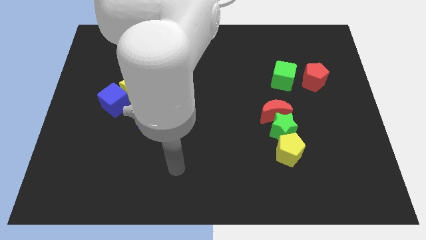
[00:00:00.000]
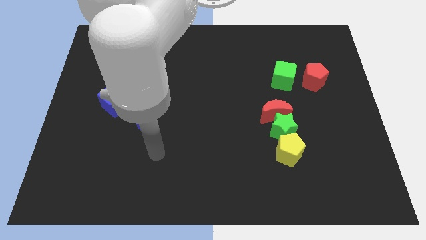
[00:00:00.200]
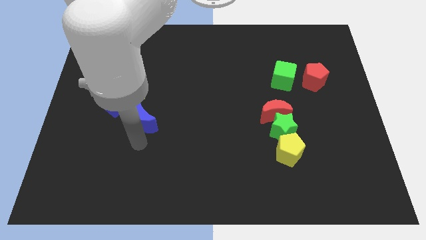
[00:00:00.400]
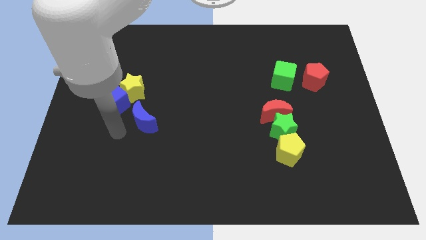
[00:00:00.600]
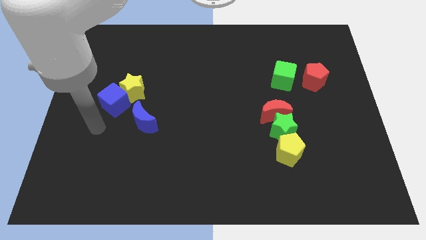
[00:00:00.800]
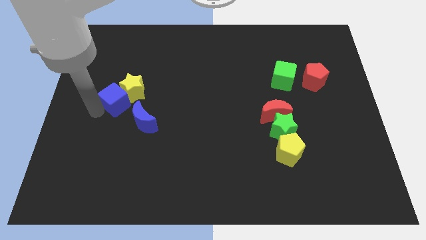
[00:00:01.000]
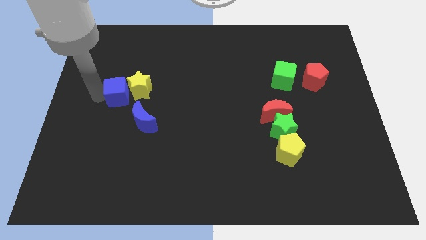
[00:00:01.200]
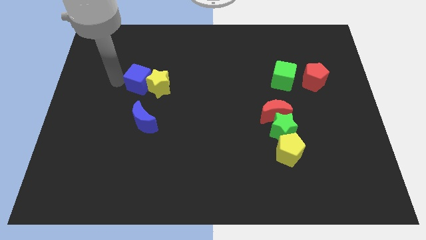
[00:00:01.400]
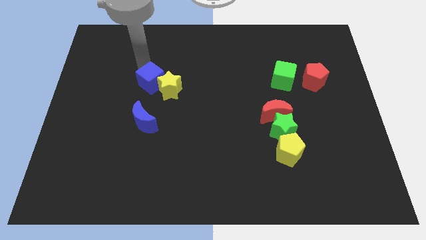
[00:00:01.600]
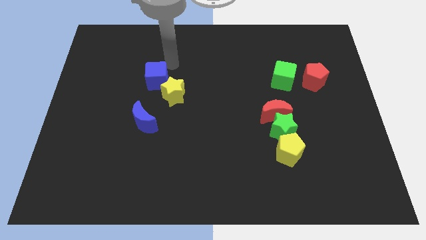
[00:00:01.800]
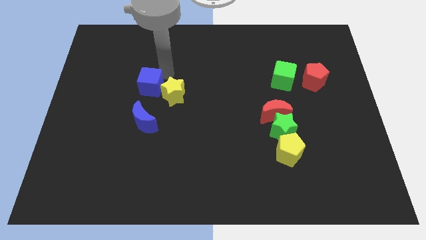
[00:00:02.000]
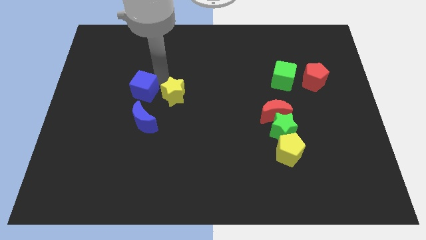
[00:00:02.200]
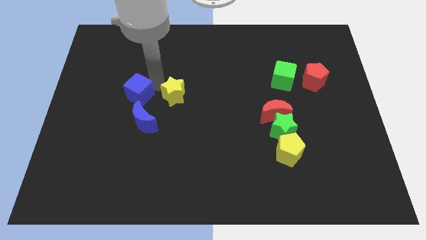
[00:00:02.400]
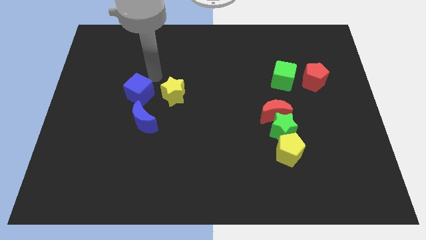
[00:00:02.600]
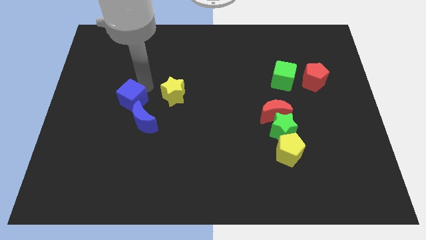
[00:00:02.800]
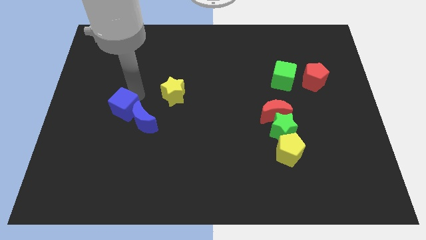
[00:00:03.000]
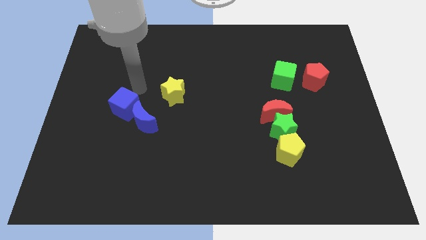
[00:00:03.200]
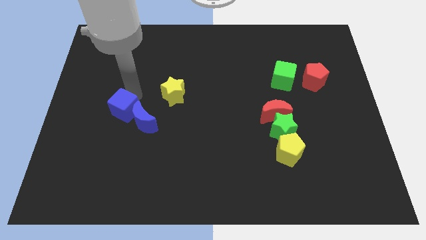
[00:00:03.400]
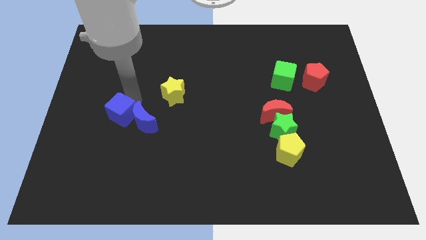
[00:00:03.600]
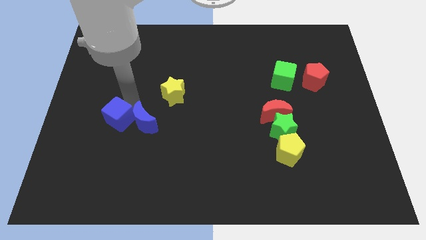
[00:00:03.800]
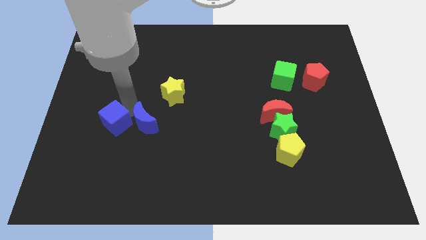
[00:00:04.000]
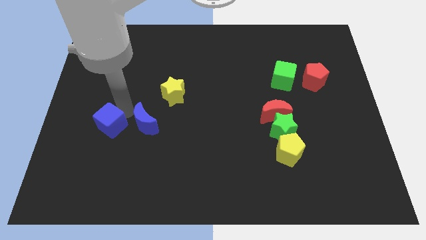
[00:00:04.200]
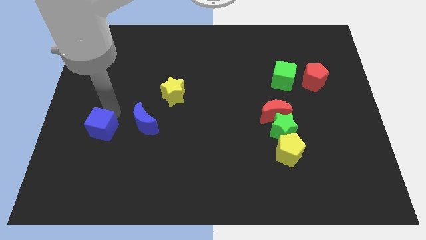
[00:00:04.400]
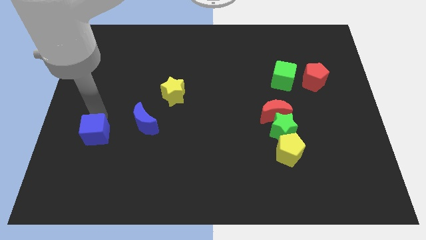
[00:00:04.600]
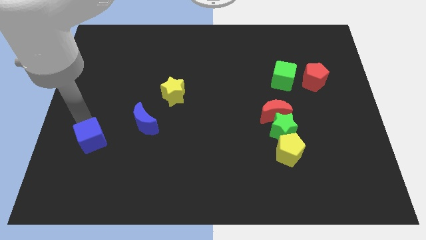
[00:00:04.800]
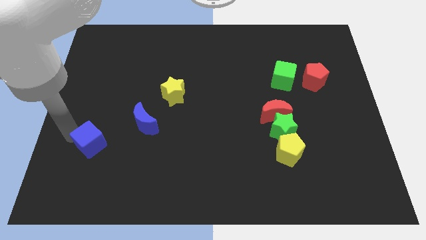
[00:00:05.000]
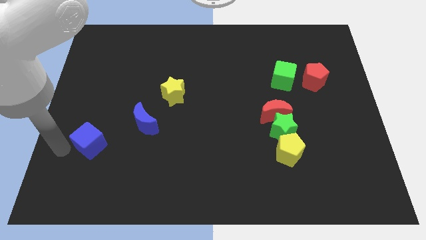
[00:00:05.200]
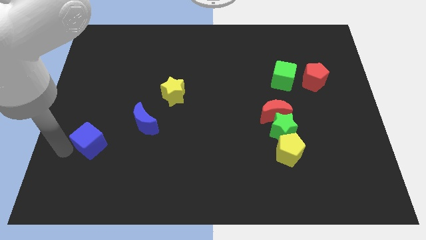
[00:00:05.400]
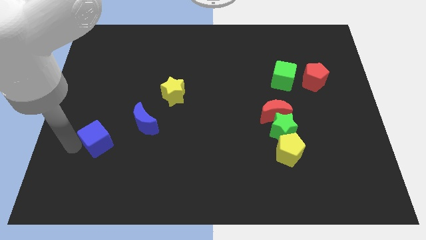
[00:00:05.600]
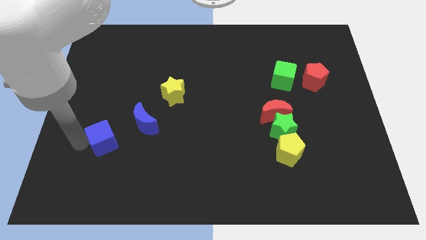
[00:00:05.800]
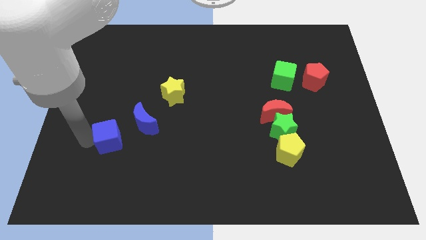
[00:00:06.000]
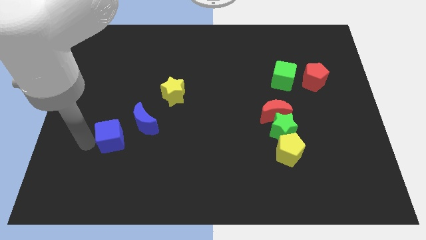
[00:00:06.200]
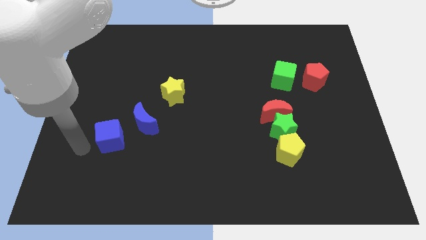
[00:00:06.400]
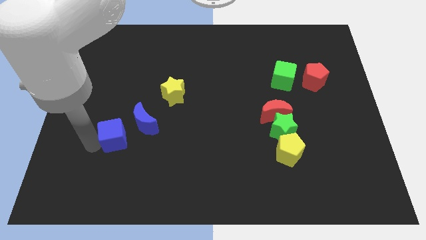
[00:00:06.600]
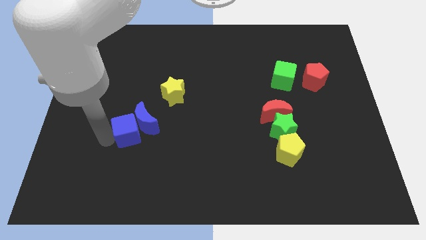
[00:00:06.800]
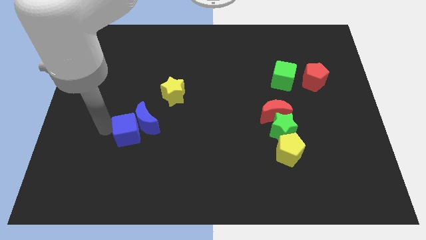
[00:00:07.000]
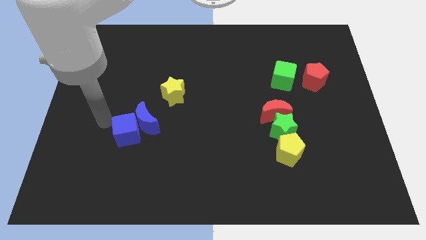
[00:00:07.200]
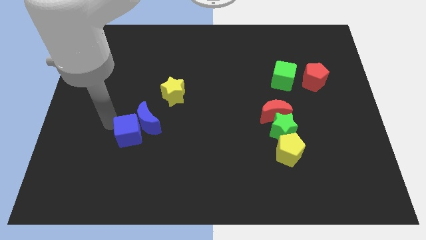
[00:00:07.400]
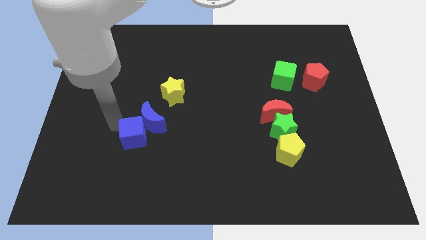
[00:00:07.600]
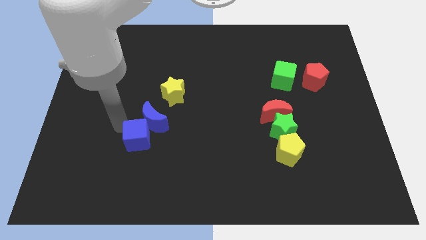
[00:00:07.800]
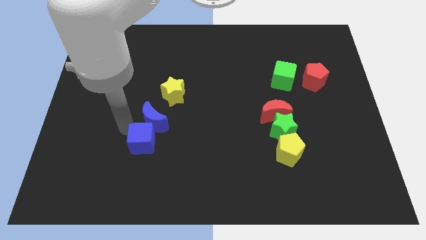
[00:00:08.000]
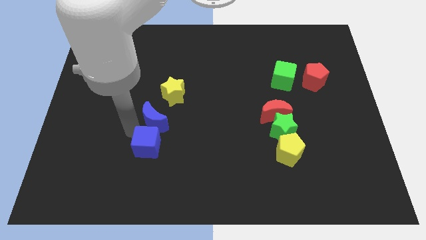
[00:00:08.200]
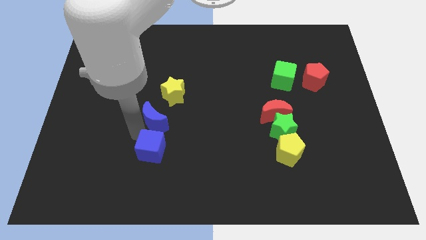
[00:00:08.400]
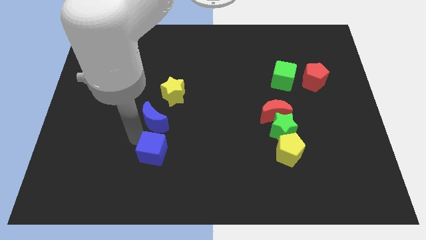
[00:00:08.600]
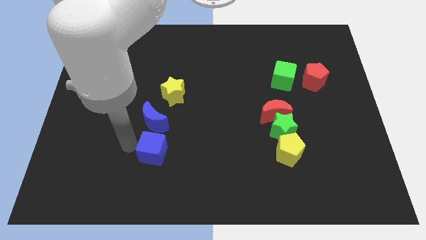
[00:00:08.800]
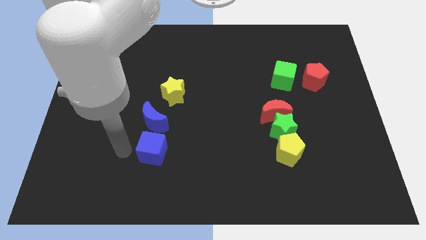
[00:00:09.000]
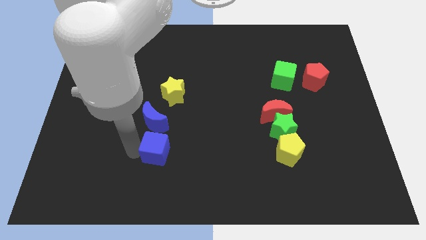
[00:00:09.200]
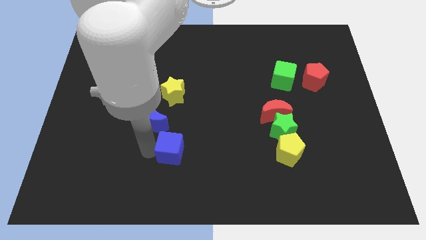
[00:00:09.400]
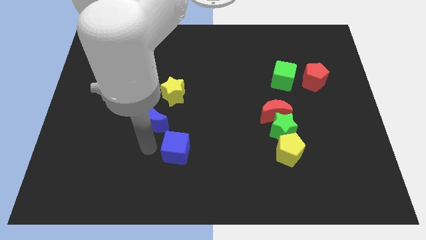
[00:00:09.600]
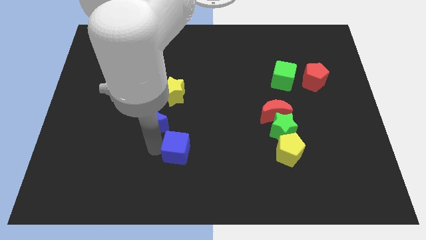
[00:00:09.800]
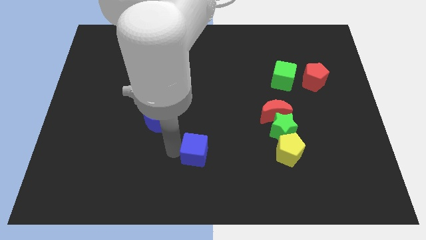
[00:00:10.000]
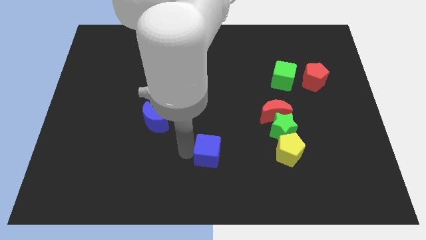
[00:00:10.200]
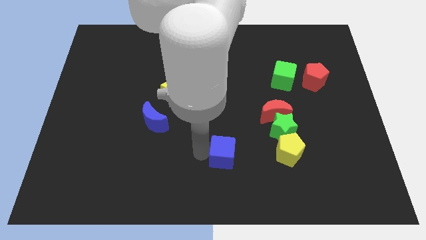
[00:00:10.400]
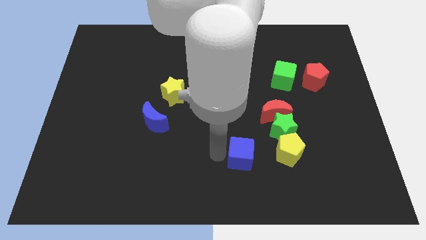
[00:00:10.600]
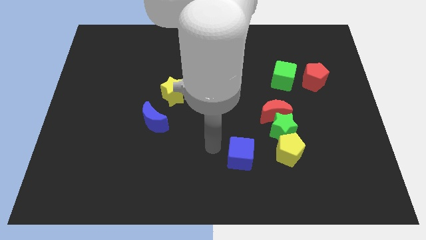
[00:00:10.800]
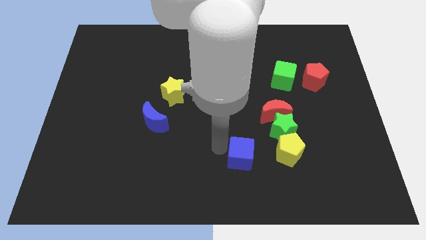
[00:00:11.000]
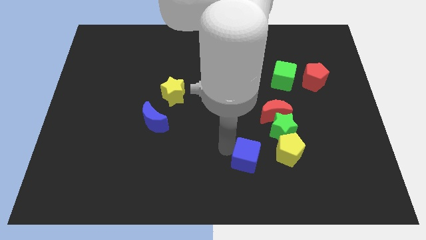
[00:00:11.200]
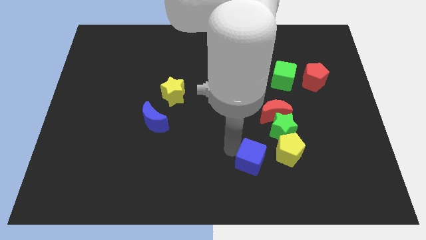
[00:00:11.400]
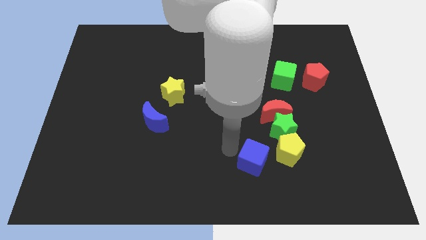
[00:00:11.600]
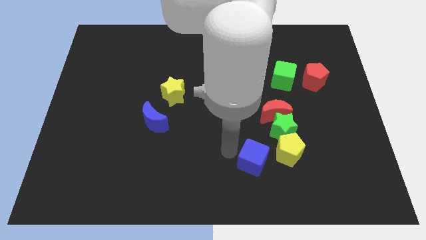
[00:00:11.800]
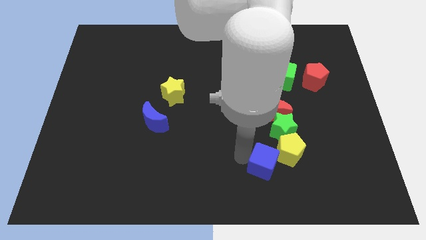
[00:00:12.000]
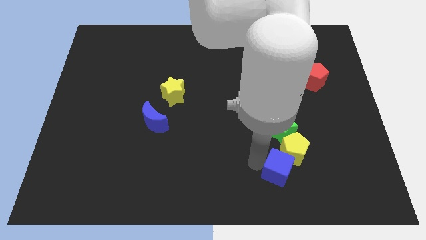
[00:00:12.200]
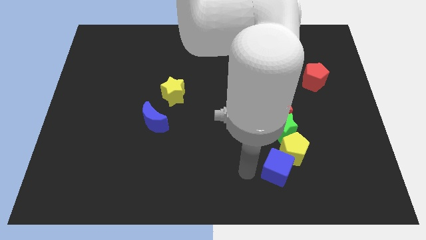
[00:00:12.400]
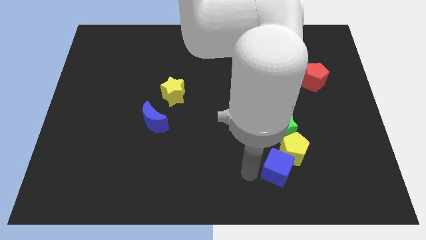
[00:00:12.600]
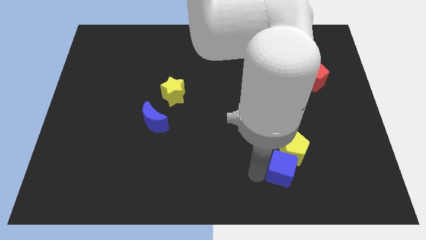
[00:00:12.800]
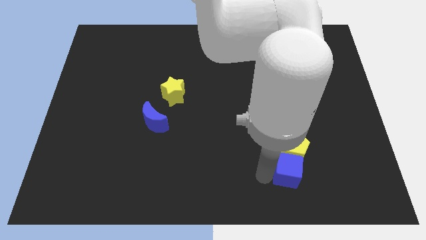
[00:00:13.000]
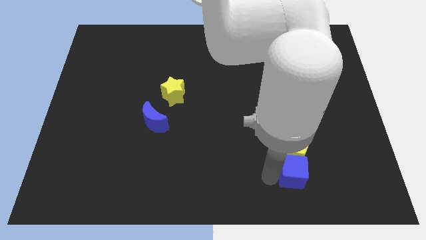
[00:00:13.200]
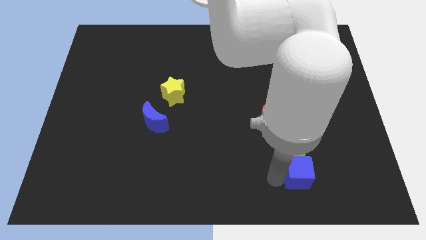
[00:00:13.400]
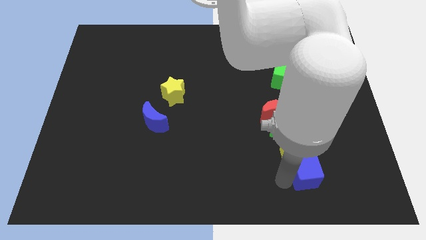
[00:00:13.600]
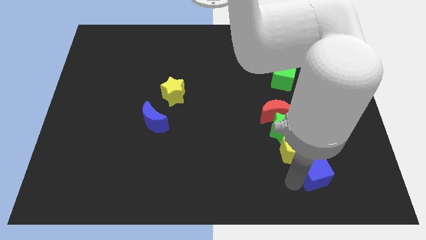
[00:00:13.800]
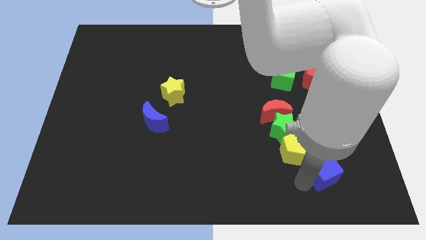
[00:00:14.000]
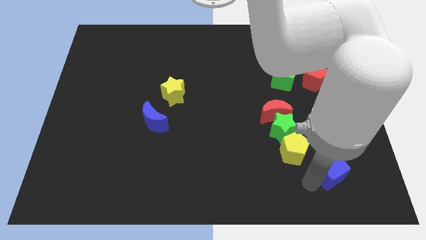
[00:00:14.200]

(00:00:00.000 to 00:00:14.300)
put the blue cube to the right side of the yellow pentagon
